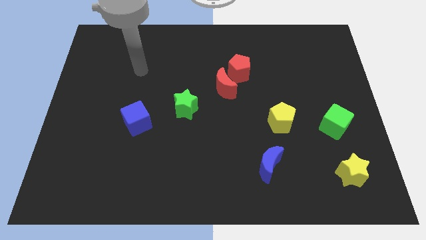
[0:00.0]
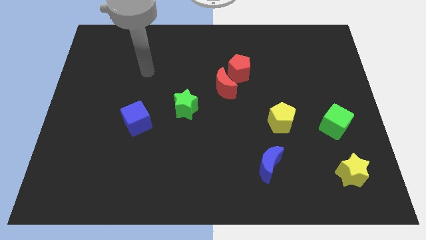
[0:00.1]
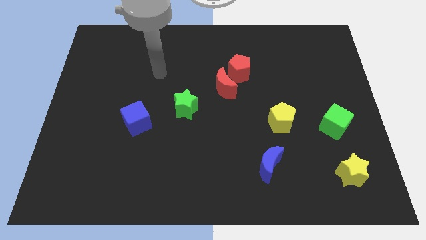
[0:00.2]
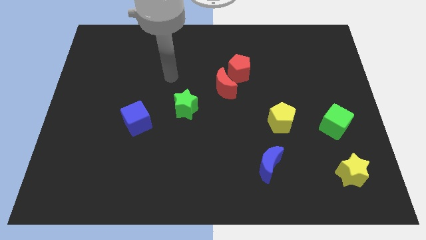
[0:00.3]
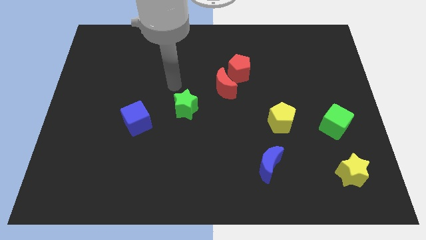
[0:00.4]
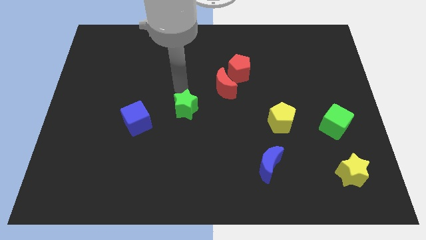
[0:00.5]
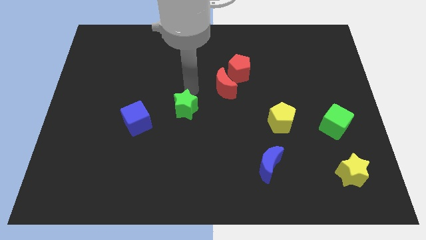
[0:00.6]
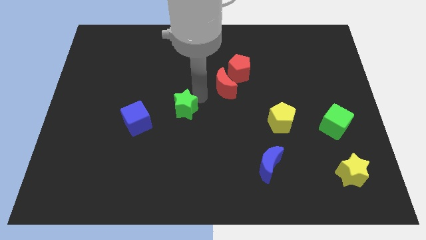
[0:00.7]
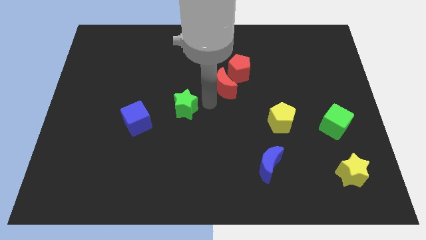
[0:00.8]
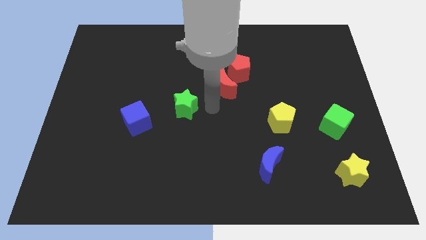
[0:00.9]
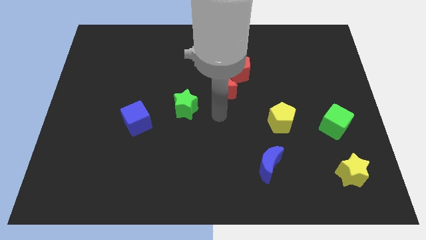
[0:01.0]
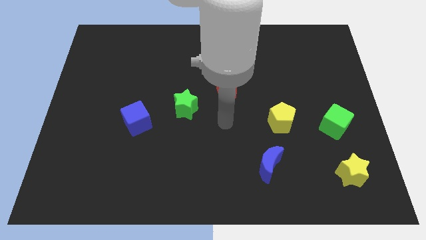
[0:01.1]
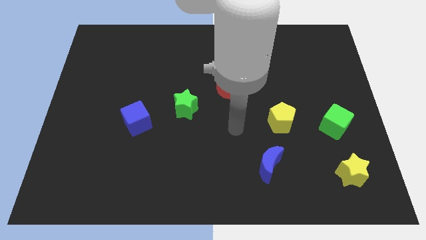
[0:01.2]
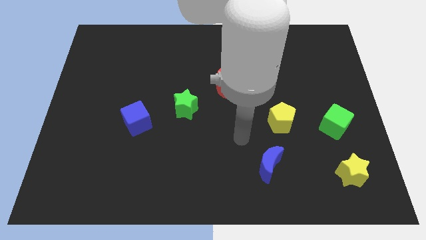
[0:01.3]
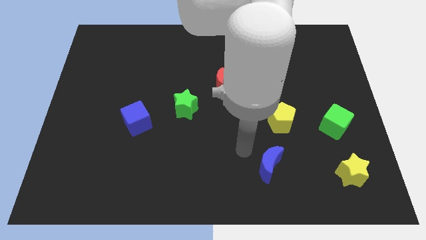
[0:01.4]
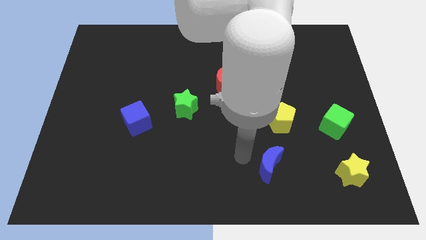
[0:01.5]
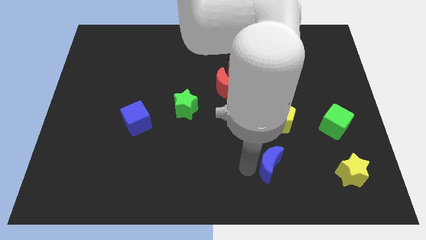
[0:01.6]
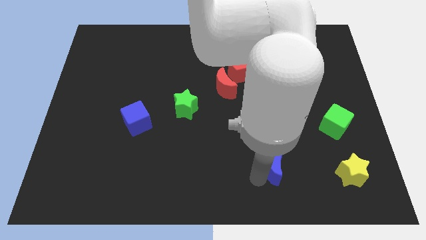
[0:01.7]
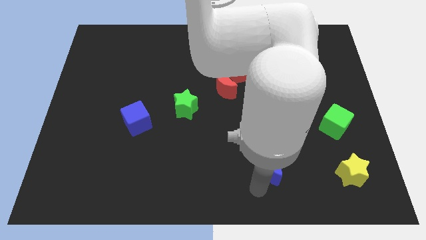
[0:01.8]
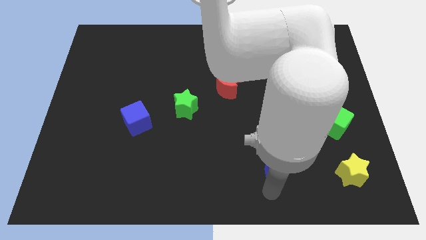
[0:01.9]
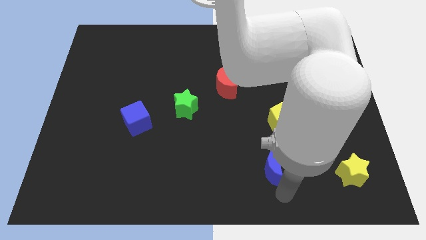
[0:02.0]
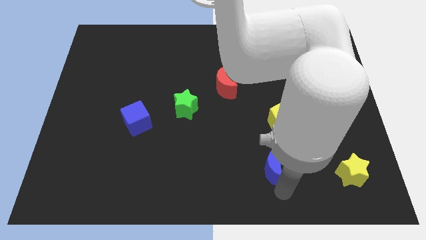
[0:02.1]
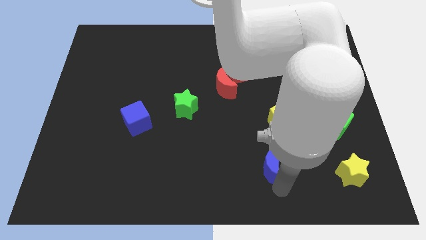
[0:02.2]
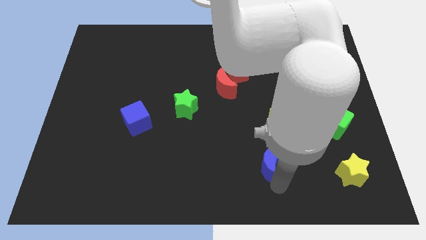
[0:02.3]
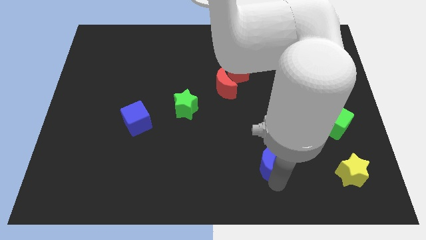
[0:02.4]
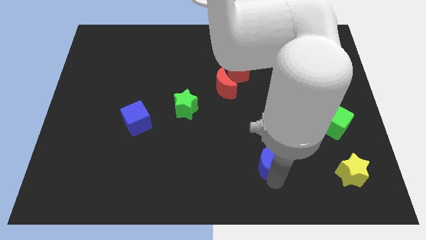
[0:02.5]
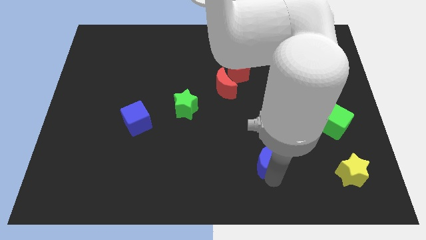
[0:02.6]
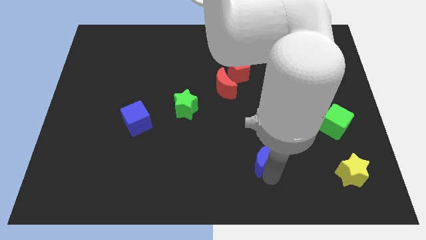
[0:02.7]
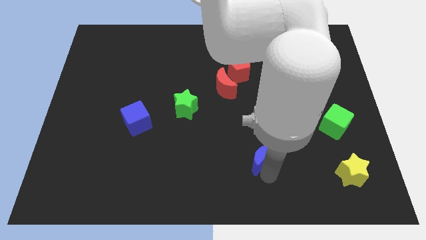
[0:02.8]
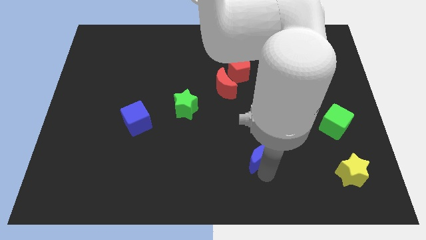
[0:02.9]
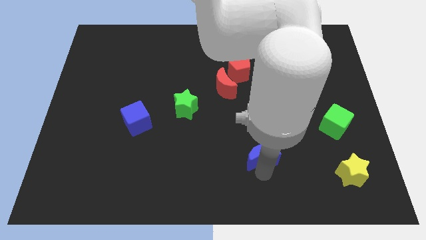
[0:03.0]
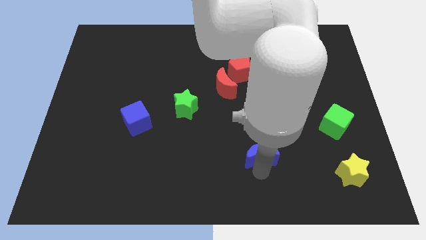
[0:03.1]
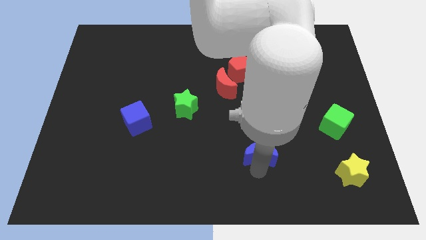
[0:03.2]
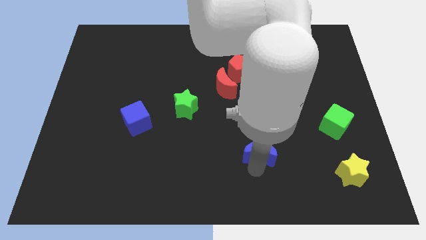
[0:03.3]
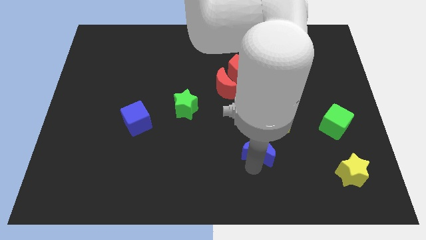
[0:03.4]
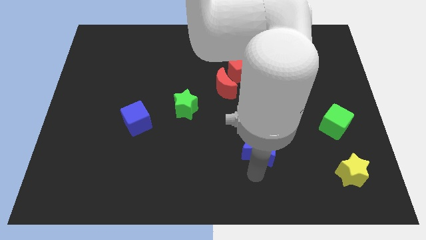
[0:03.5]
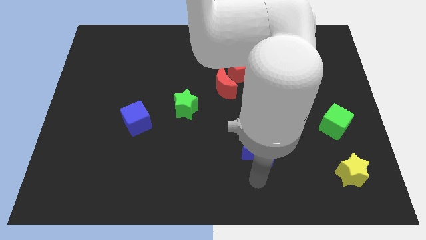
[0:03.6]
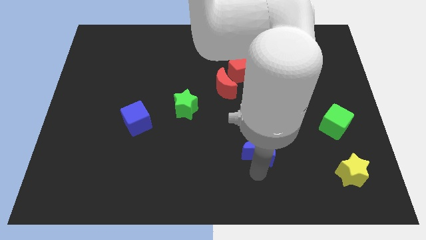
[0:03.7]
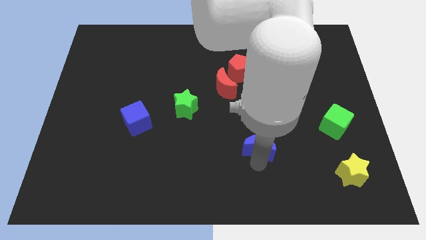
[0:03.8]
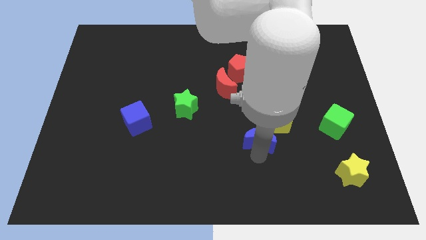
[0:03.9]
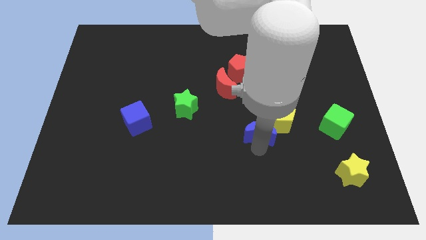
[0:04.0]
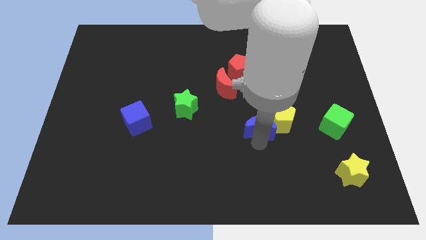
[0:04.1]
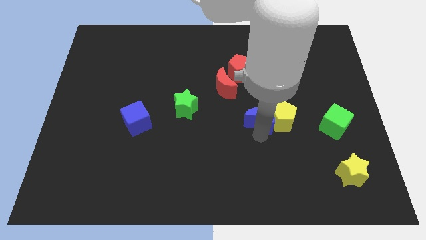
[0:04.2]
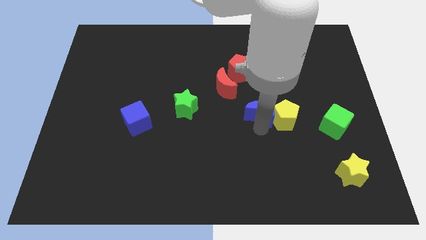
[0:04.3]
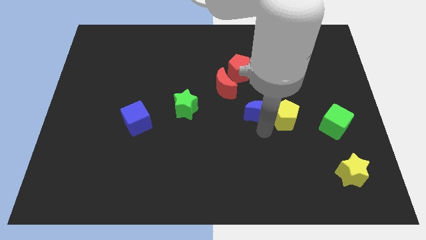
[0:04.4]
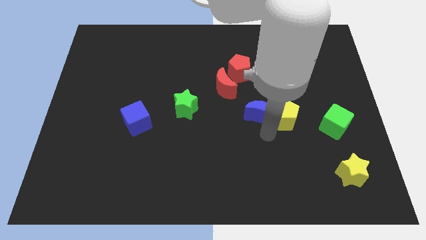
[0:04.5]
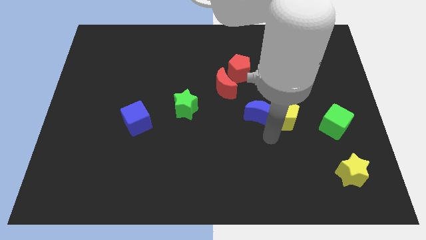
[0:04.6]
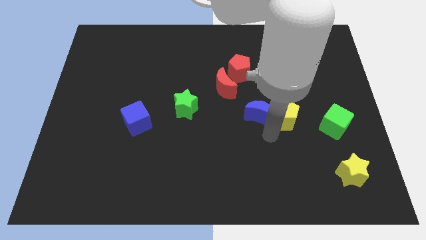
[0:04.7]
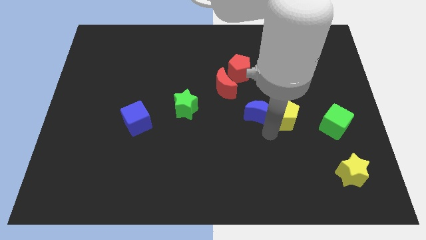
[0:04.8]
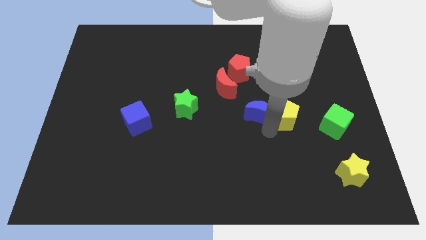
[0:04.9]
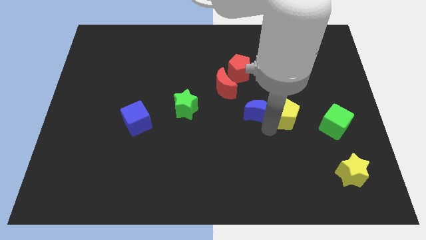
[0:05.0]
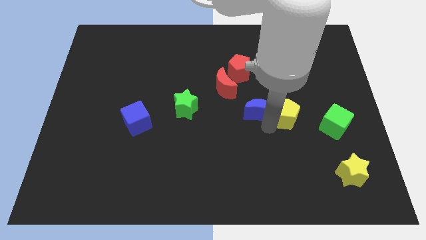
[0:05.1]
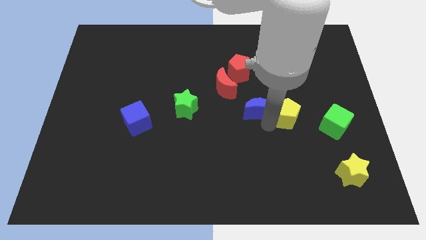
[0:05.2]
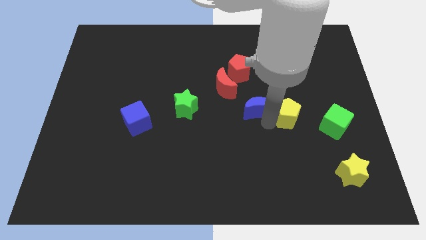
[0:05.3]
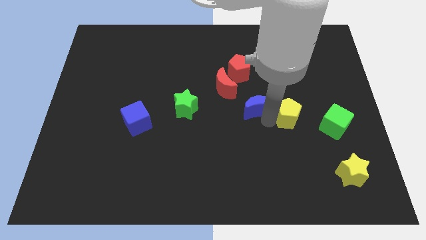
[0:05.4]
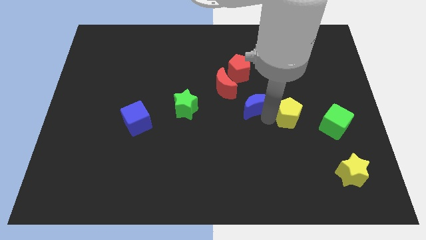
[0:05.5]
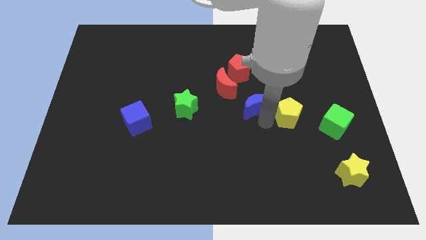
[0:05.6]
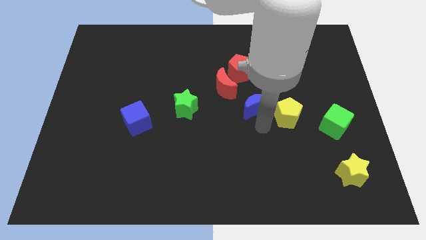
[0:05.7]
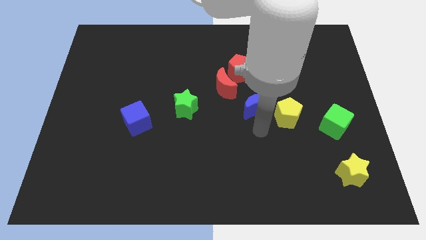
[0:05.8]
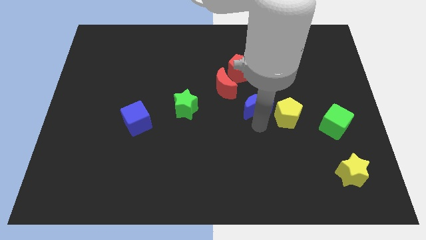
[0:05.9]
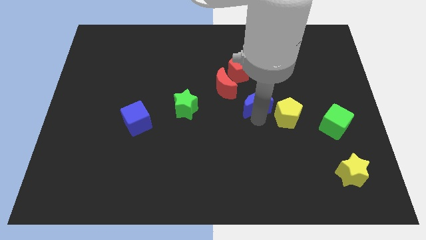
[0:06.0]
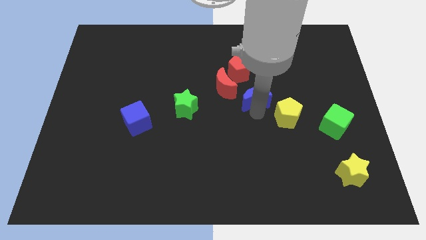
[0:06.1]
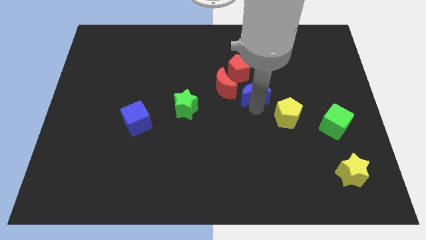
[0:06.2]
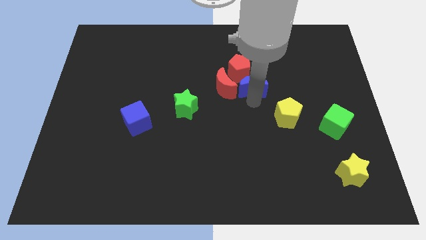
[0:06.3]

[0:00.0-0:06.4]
move the blue moon up

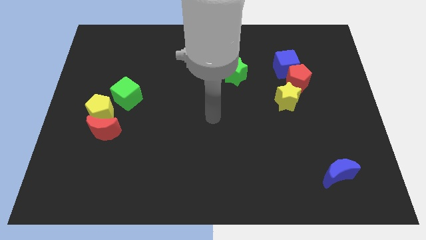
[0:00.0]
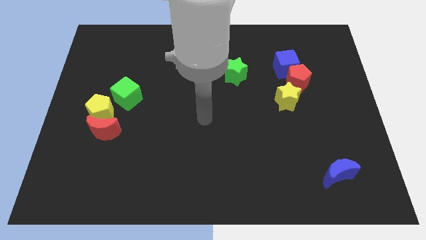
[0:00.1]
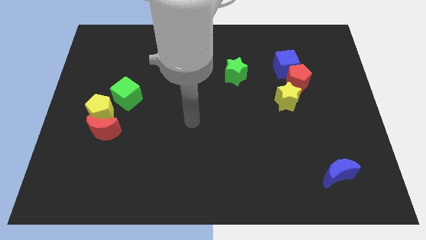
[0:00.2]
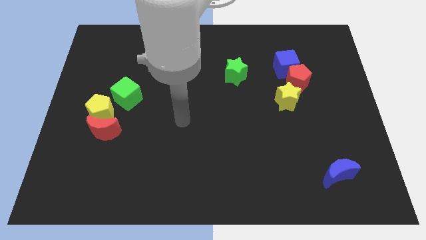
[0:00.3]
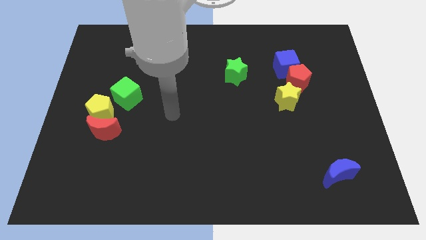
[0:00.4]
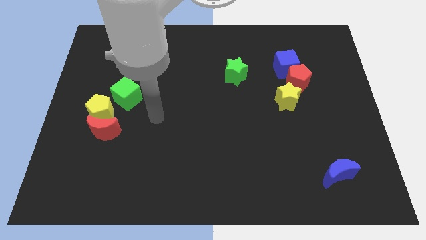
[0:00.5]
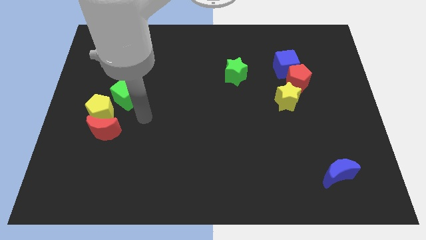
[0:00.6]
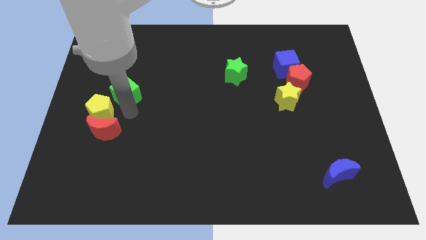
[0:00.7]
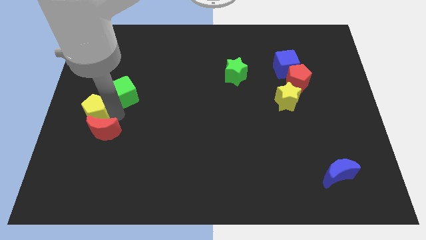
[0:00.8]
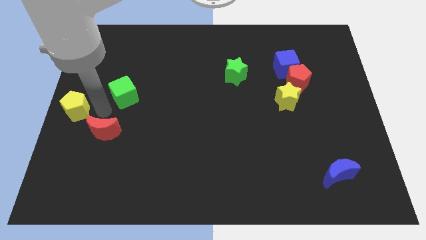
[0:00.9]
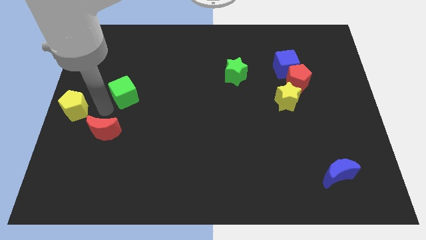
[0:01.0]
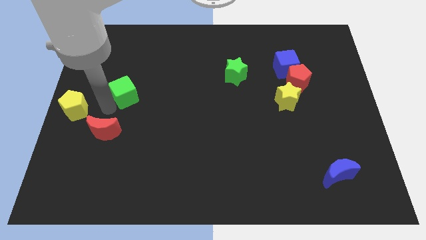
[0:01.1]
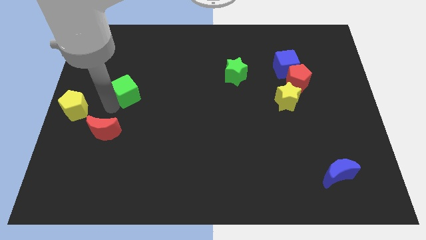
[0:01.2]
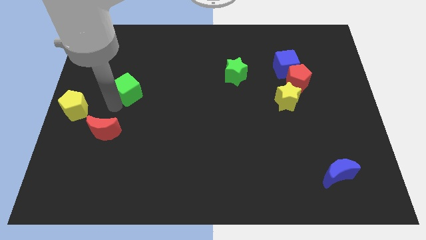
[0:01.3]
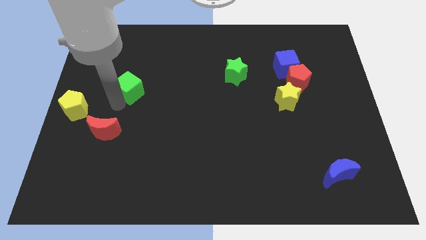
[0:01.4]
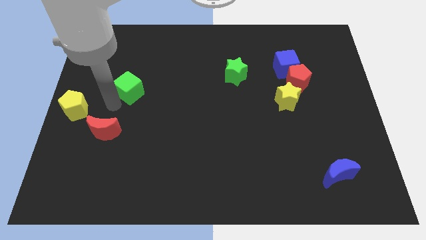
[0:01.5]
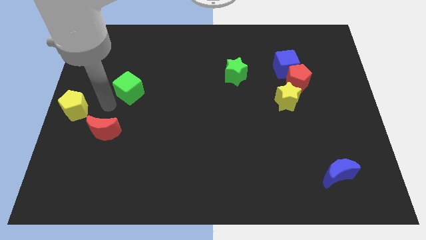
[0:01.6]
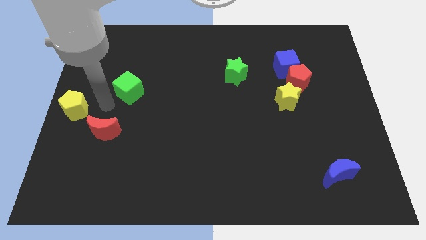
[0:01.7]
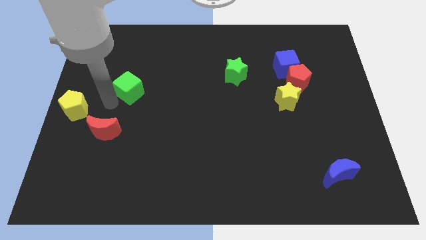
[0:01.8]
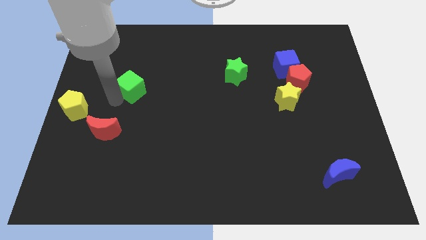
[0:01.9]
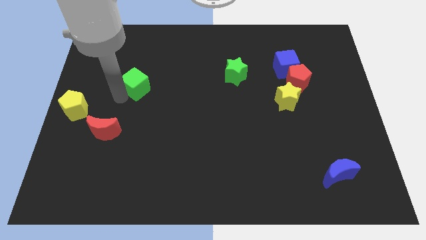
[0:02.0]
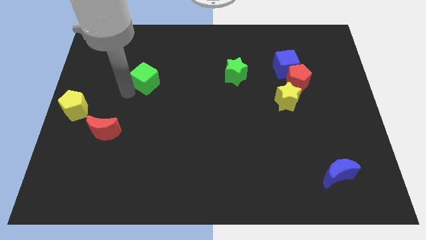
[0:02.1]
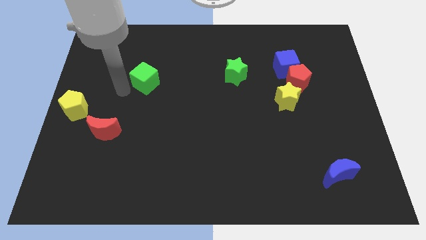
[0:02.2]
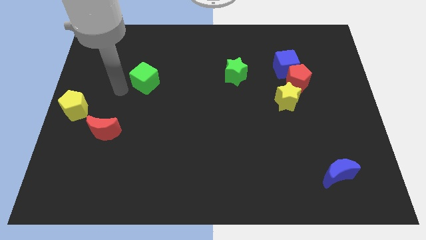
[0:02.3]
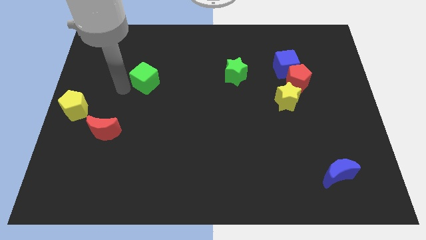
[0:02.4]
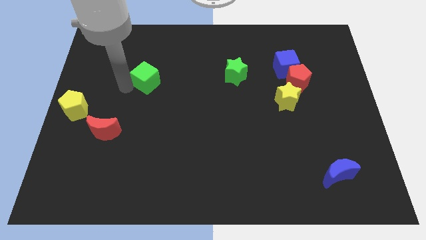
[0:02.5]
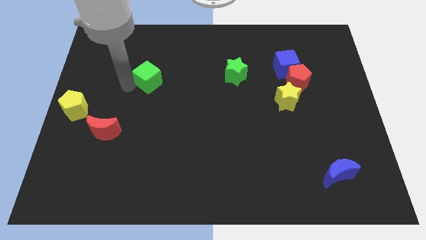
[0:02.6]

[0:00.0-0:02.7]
move the green cube up and to the right diagonally a little
